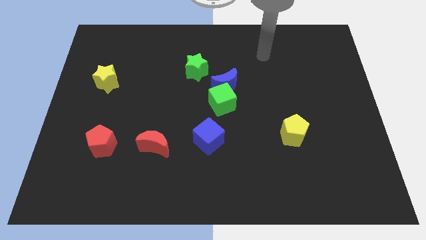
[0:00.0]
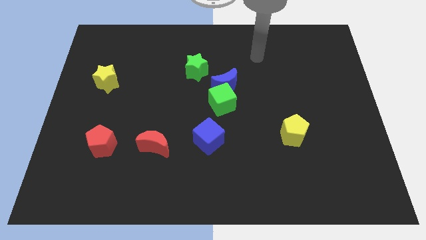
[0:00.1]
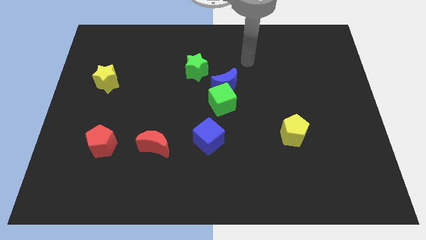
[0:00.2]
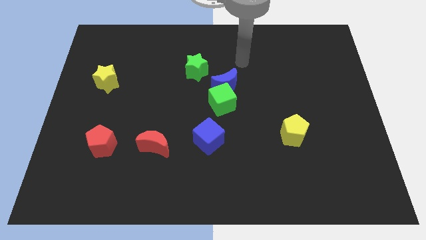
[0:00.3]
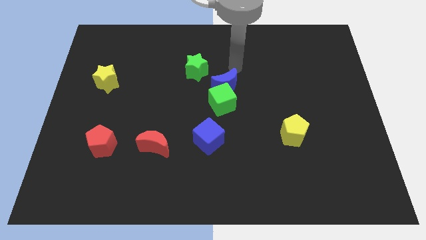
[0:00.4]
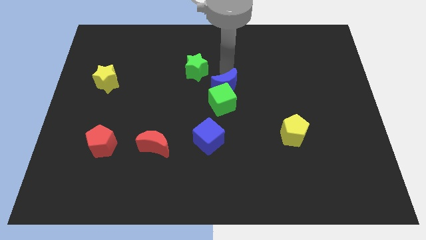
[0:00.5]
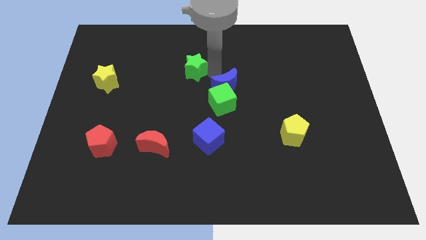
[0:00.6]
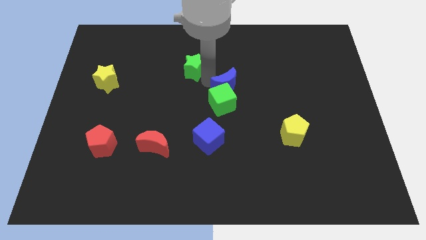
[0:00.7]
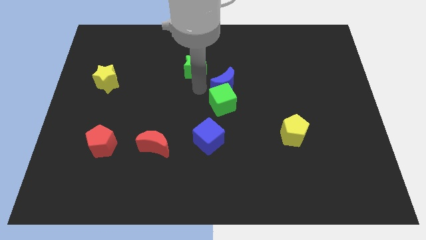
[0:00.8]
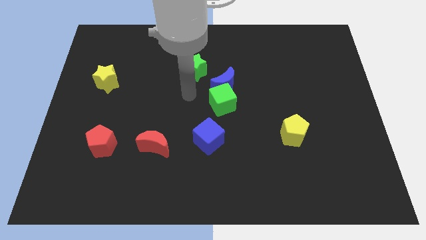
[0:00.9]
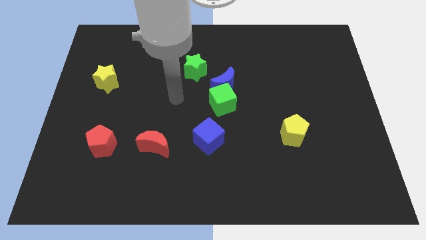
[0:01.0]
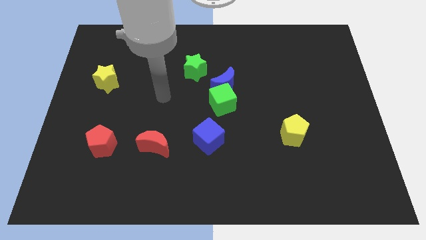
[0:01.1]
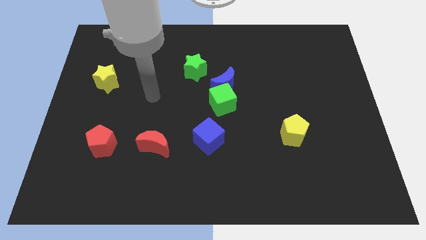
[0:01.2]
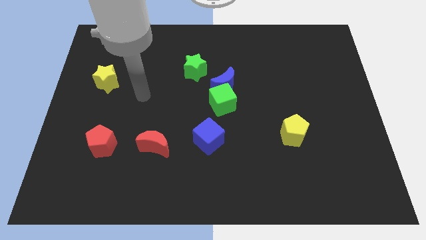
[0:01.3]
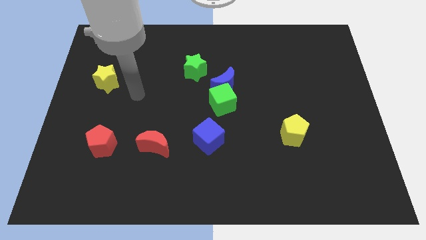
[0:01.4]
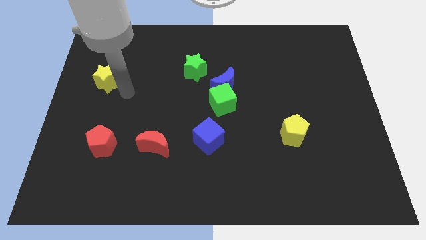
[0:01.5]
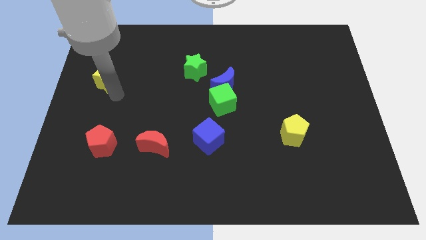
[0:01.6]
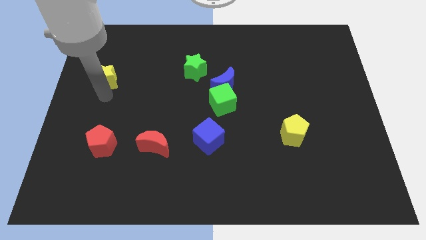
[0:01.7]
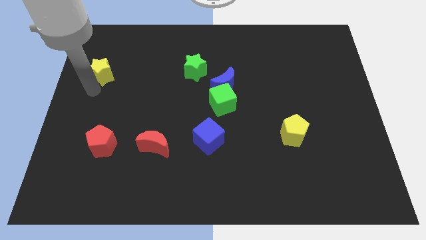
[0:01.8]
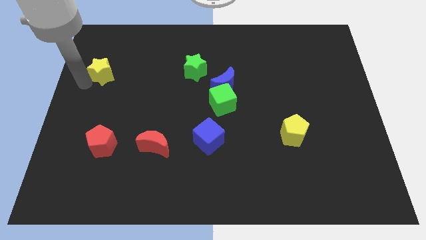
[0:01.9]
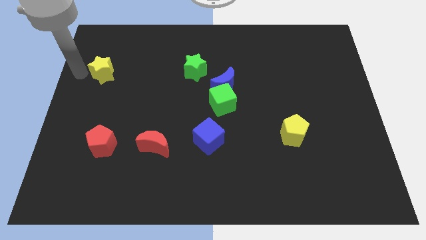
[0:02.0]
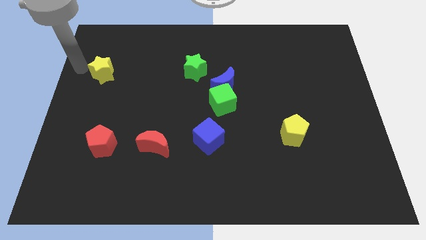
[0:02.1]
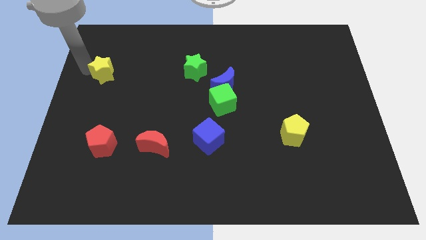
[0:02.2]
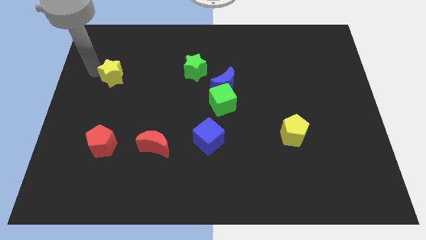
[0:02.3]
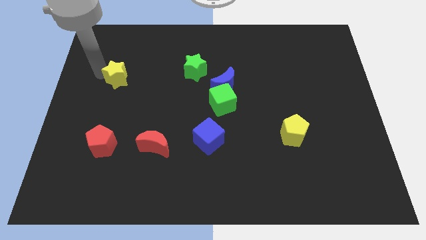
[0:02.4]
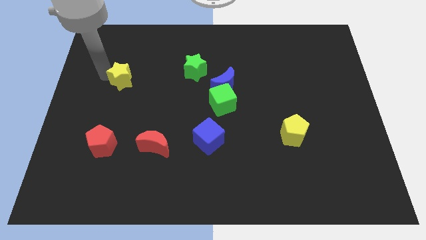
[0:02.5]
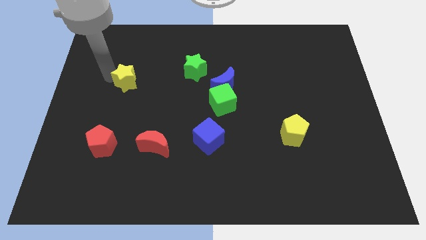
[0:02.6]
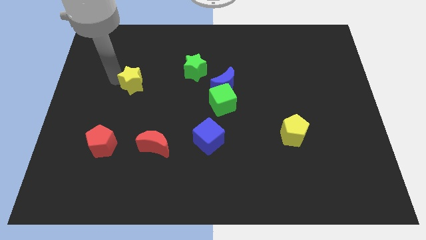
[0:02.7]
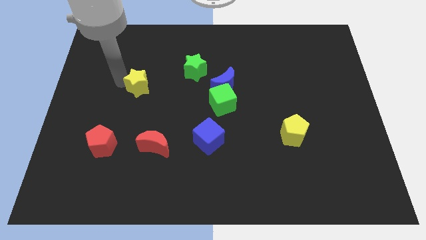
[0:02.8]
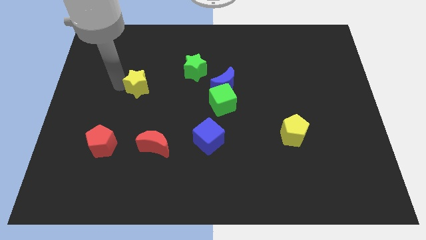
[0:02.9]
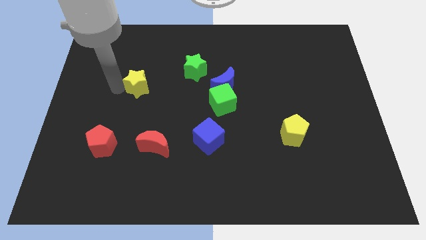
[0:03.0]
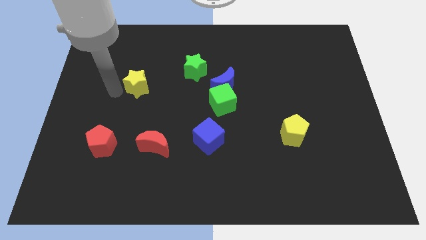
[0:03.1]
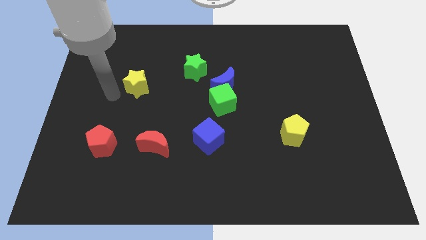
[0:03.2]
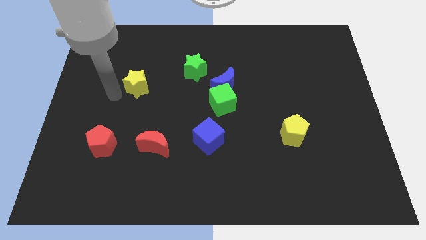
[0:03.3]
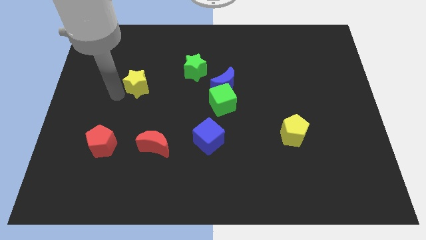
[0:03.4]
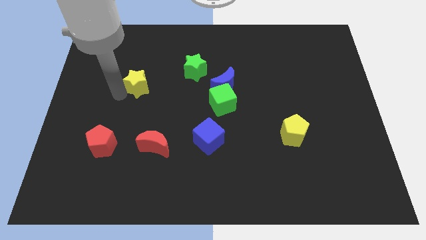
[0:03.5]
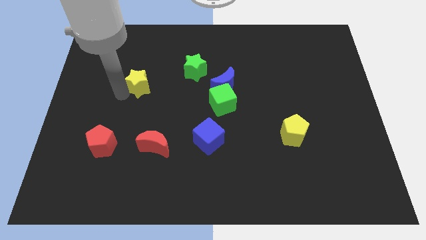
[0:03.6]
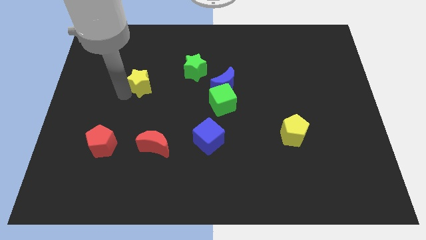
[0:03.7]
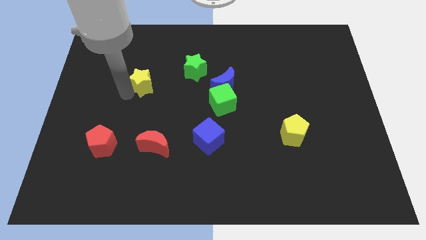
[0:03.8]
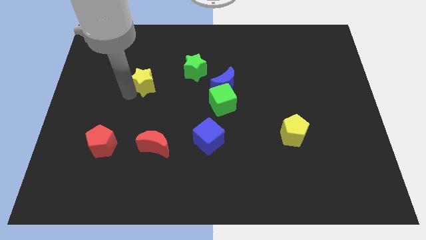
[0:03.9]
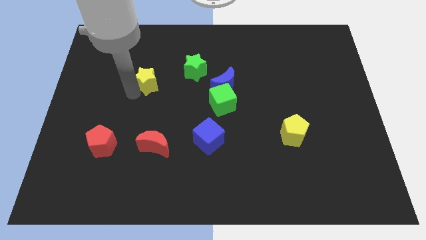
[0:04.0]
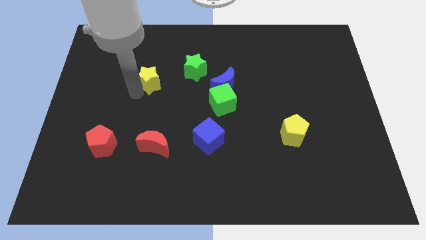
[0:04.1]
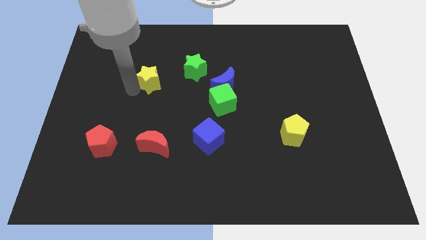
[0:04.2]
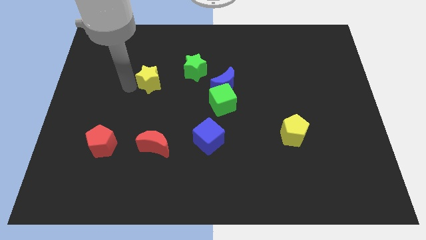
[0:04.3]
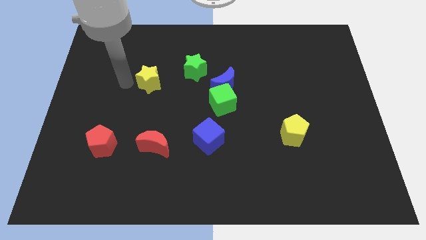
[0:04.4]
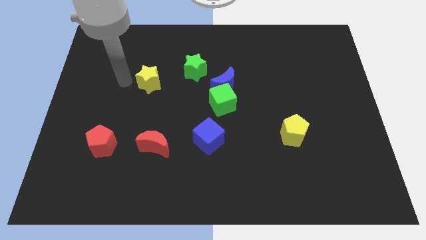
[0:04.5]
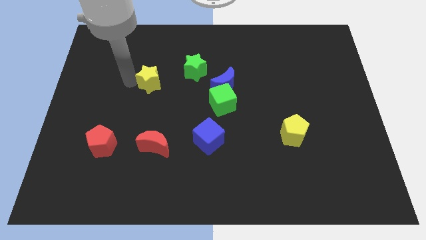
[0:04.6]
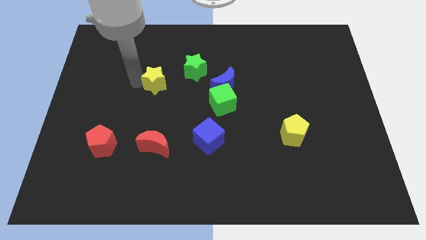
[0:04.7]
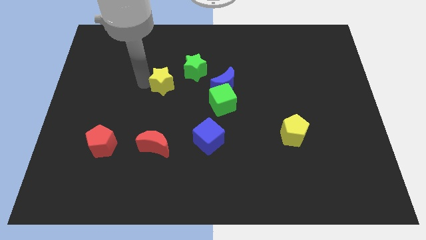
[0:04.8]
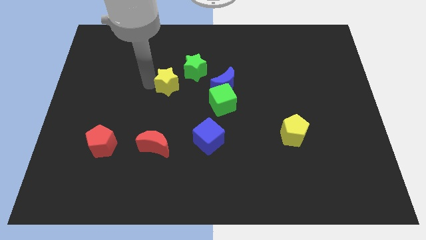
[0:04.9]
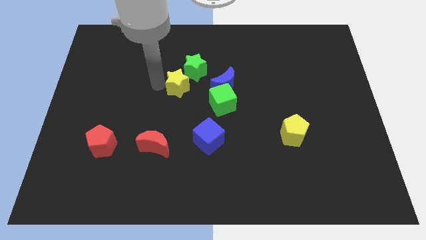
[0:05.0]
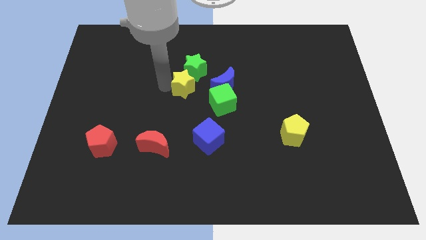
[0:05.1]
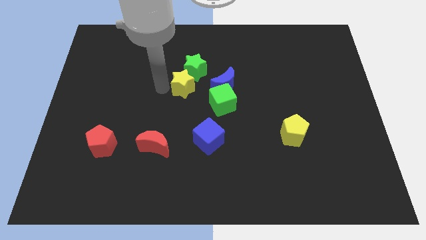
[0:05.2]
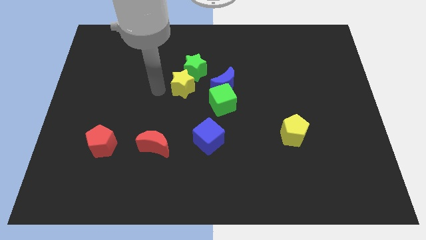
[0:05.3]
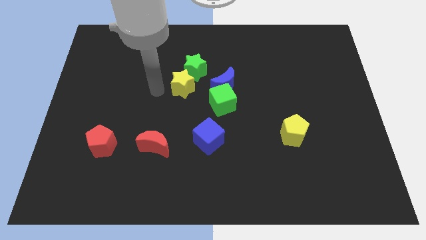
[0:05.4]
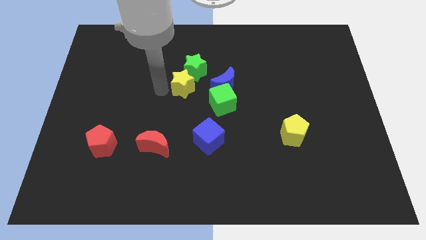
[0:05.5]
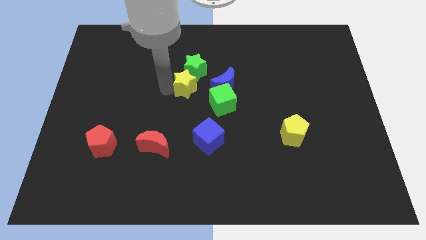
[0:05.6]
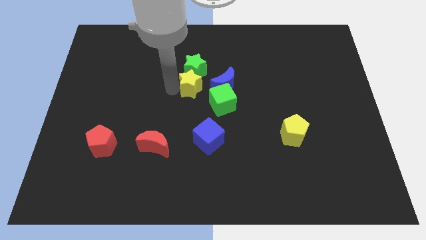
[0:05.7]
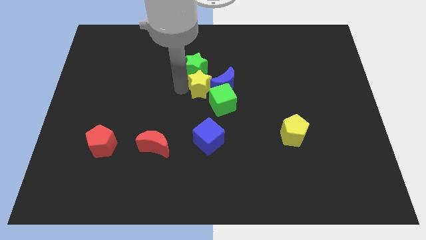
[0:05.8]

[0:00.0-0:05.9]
push the yellow star towards the blue moon

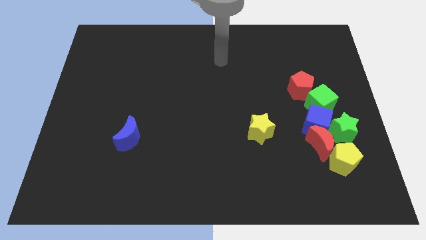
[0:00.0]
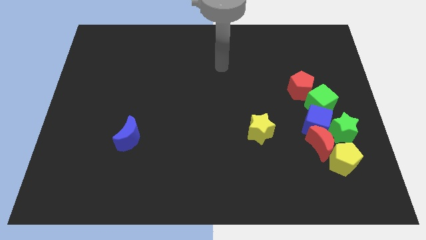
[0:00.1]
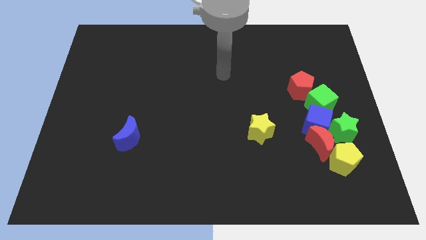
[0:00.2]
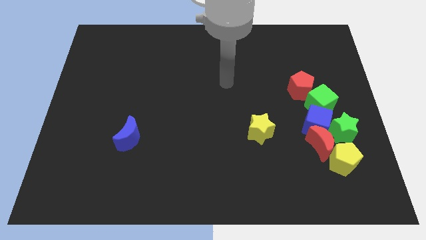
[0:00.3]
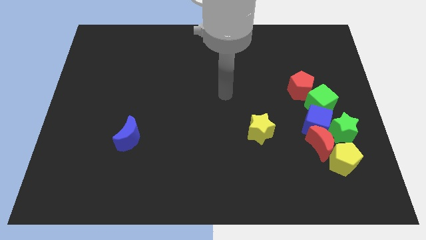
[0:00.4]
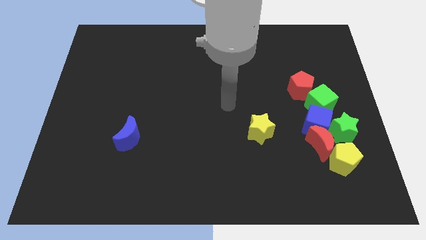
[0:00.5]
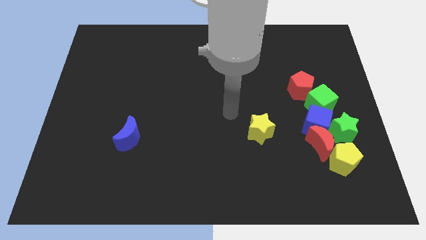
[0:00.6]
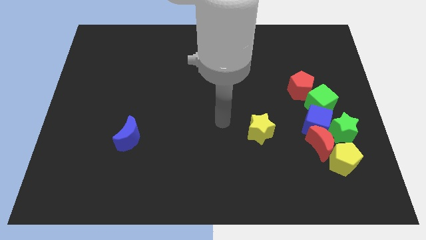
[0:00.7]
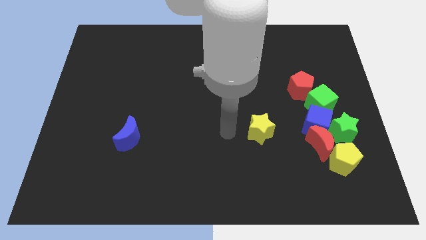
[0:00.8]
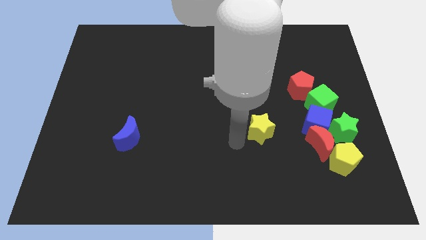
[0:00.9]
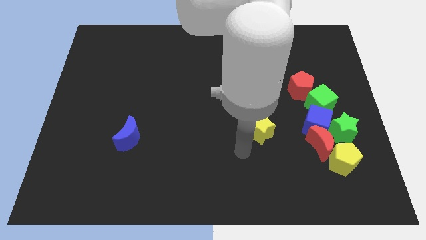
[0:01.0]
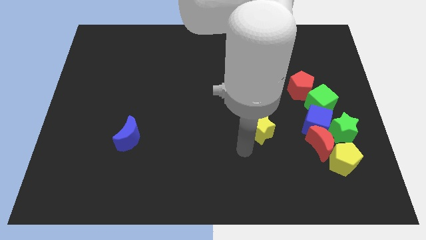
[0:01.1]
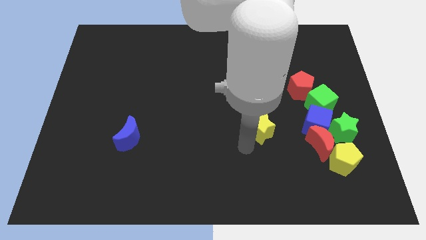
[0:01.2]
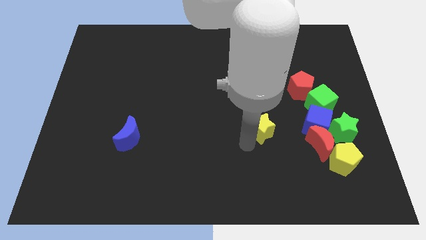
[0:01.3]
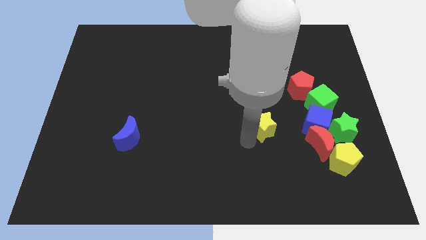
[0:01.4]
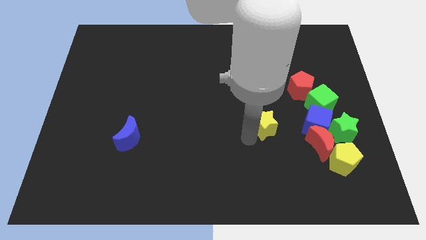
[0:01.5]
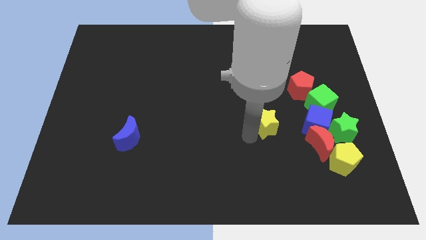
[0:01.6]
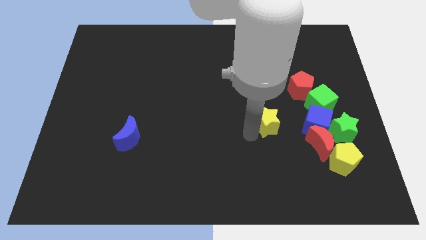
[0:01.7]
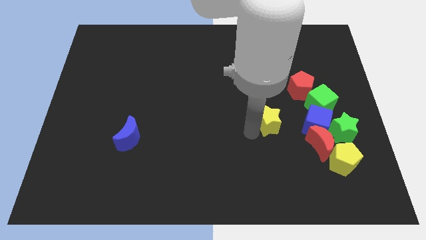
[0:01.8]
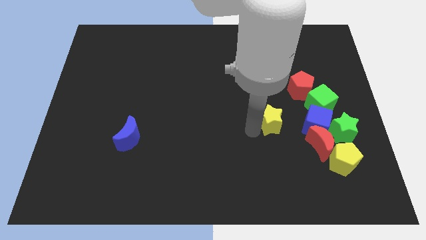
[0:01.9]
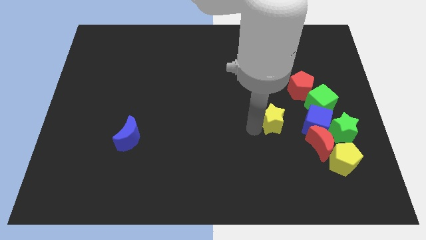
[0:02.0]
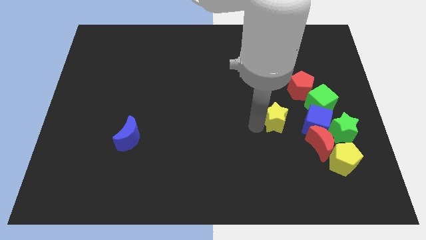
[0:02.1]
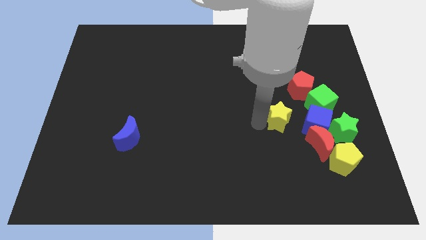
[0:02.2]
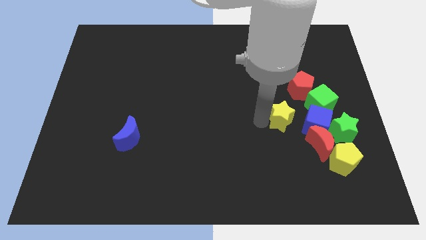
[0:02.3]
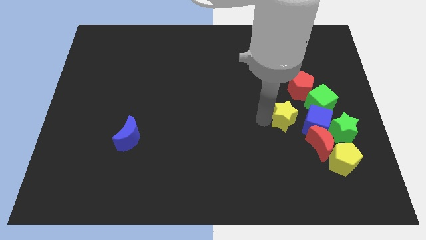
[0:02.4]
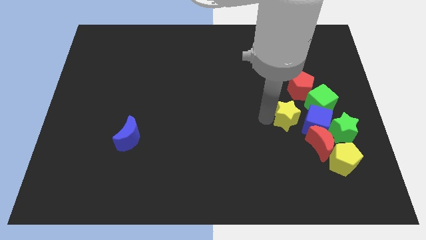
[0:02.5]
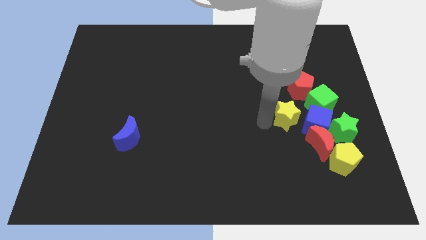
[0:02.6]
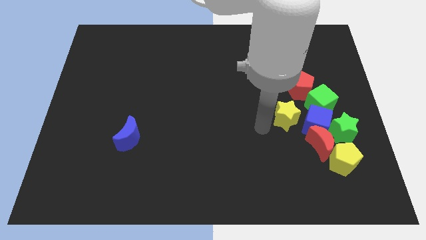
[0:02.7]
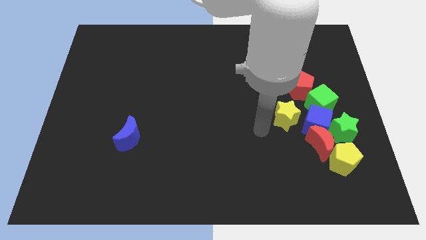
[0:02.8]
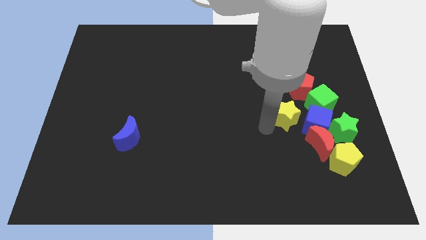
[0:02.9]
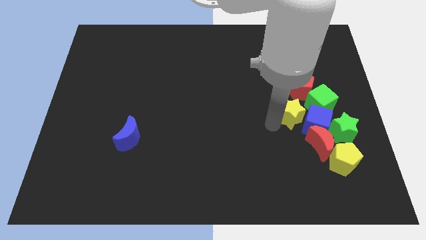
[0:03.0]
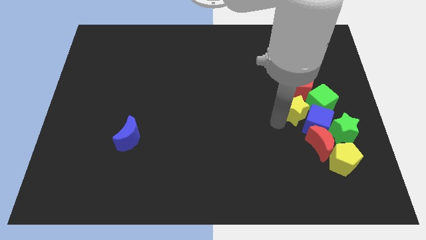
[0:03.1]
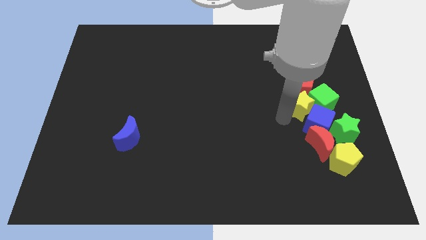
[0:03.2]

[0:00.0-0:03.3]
put the yellow star next to the green cube
